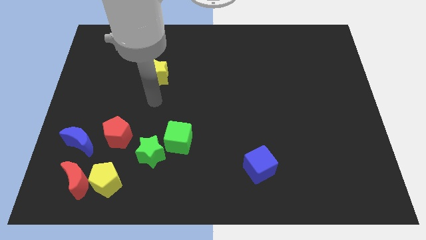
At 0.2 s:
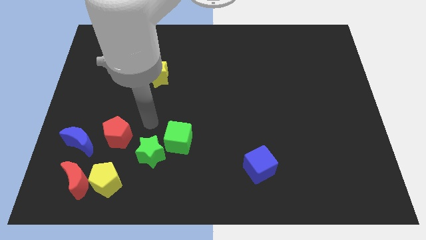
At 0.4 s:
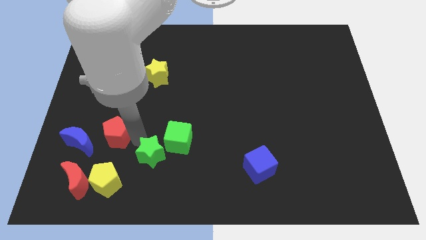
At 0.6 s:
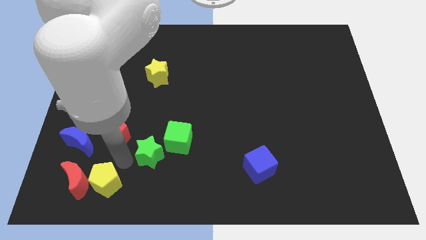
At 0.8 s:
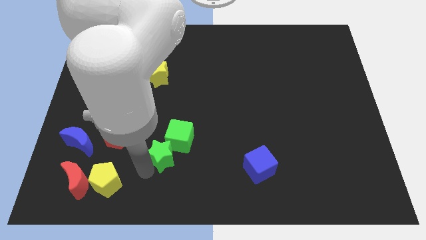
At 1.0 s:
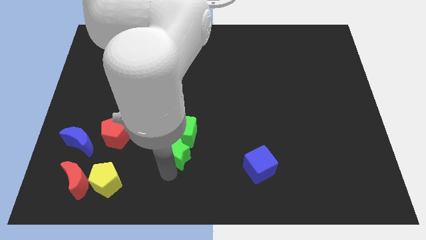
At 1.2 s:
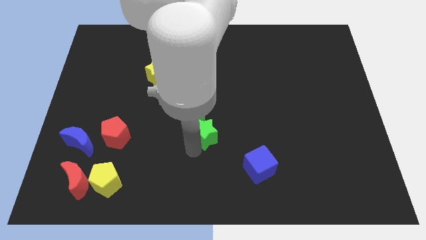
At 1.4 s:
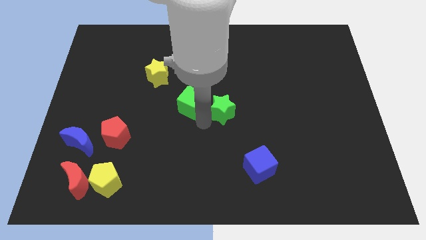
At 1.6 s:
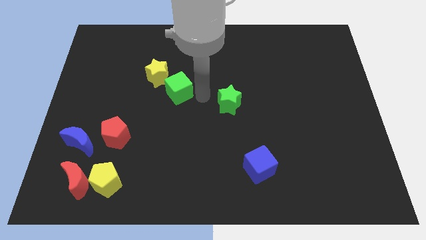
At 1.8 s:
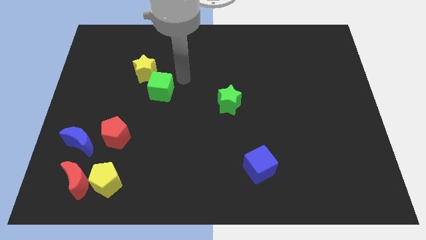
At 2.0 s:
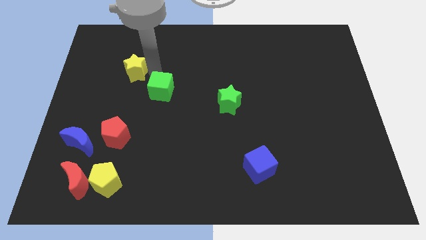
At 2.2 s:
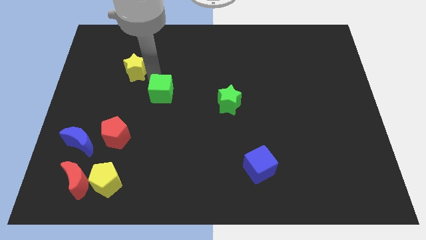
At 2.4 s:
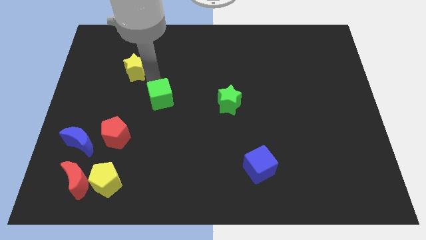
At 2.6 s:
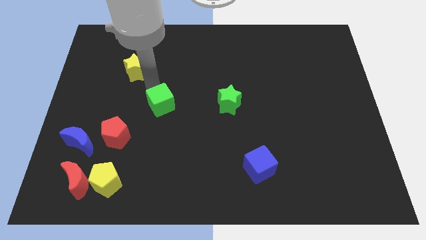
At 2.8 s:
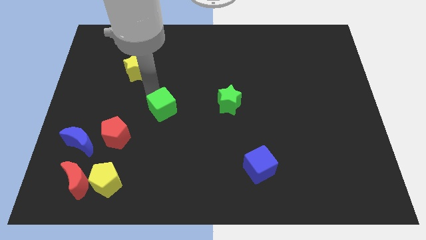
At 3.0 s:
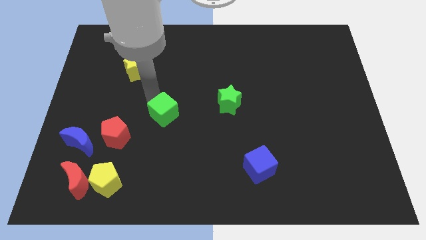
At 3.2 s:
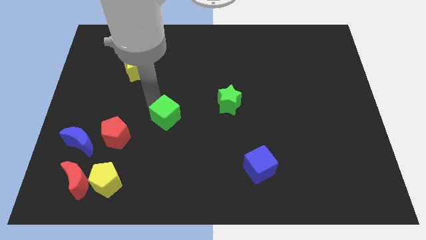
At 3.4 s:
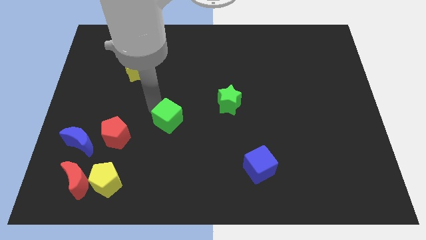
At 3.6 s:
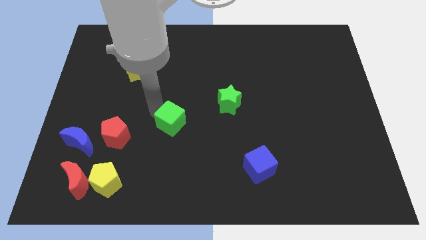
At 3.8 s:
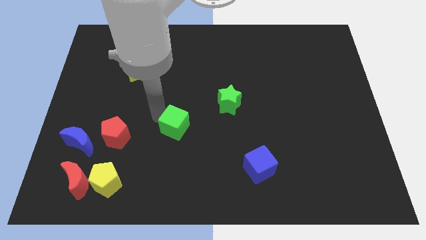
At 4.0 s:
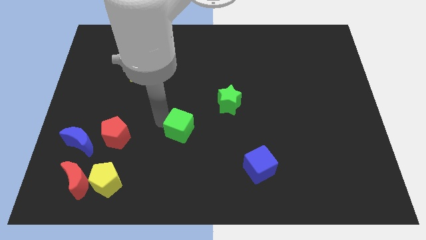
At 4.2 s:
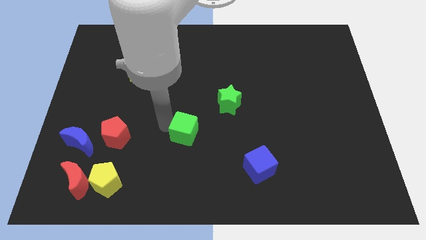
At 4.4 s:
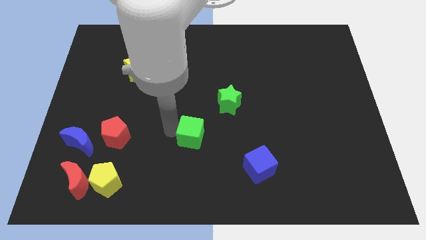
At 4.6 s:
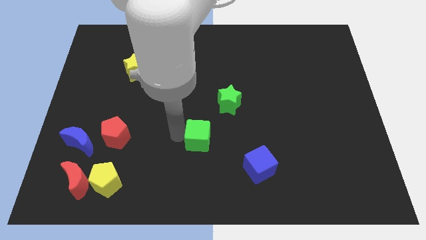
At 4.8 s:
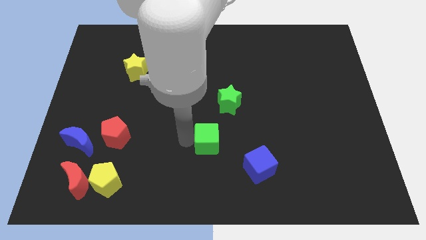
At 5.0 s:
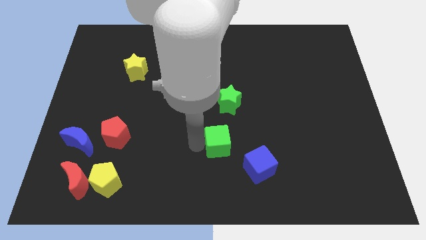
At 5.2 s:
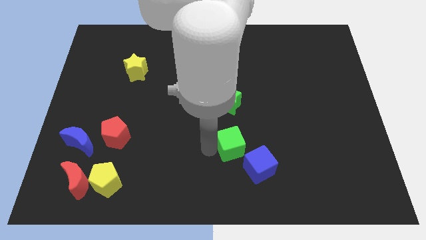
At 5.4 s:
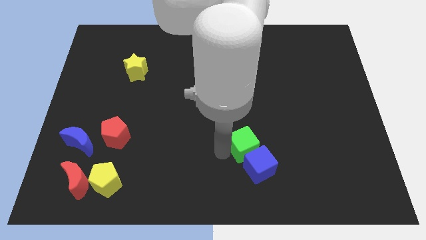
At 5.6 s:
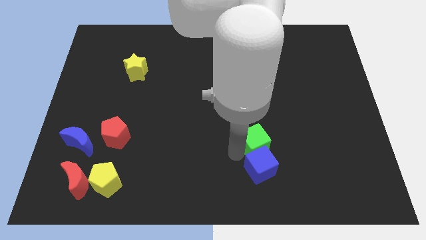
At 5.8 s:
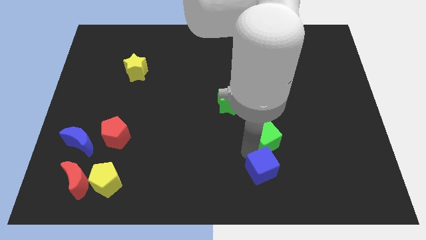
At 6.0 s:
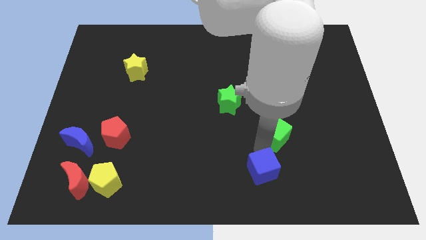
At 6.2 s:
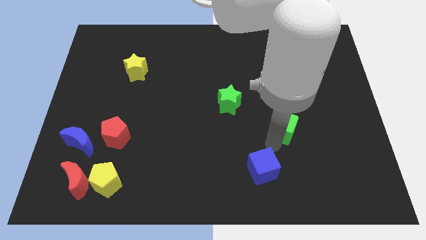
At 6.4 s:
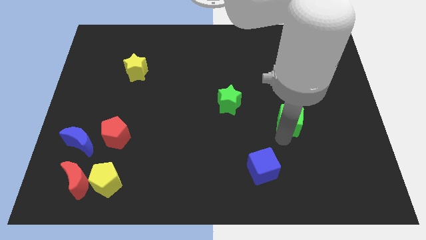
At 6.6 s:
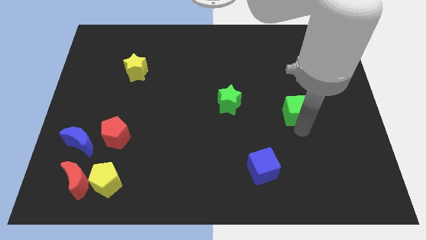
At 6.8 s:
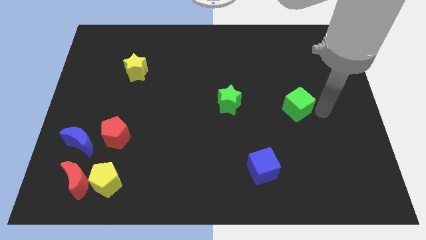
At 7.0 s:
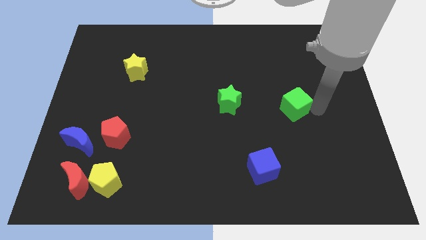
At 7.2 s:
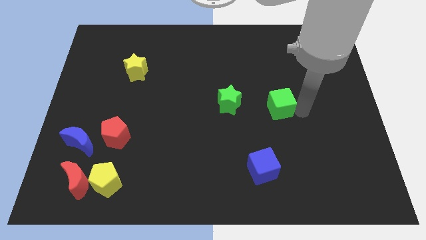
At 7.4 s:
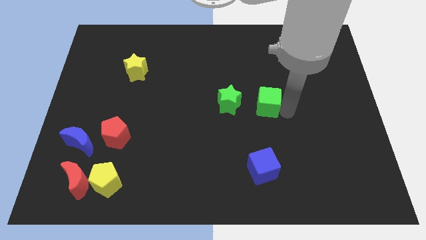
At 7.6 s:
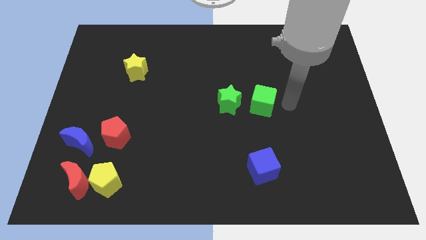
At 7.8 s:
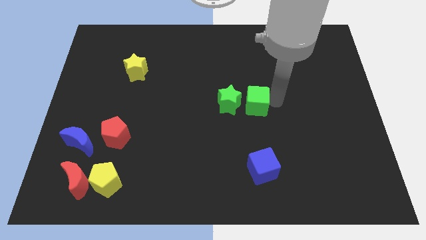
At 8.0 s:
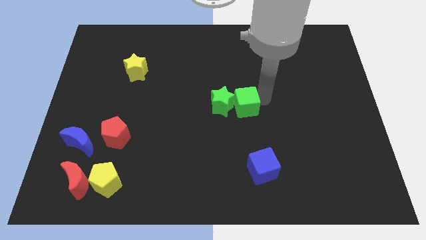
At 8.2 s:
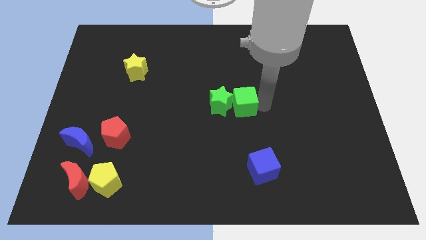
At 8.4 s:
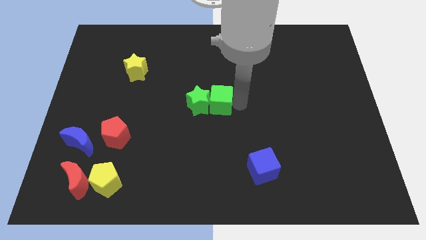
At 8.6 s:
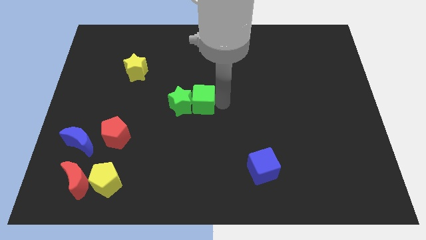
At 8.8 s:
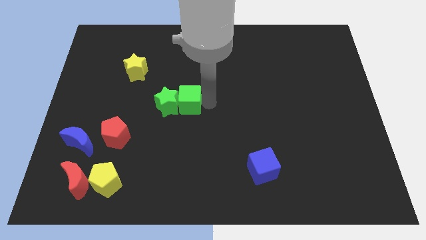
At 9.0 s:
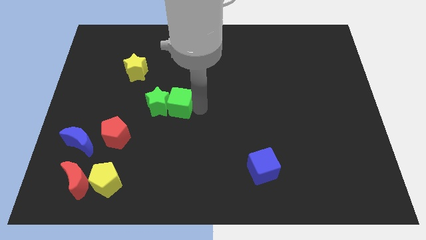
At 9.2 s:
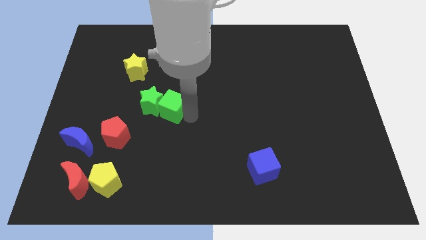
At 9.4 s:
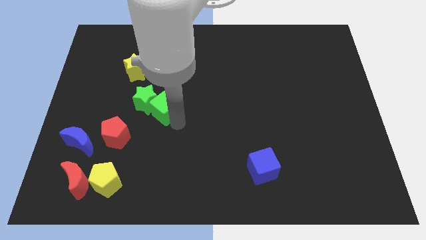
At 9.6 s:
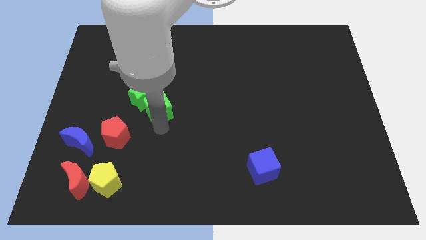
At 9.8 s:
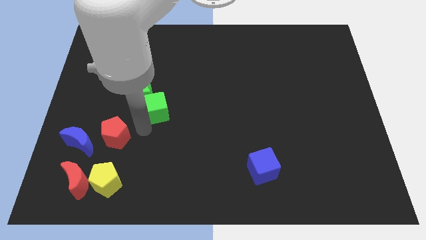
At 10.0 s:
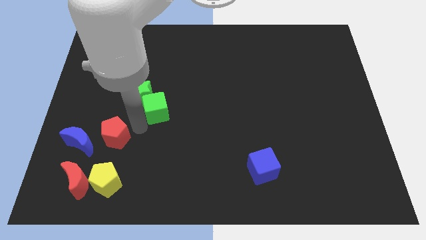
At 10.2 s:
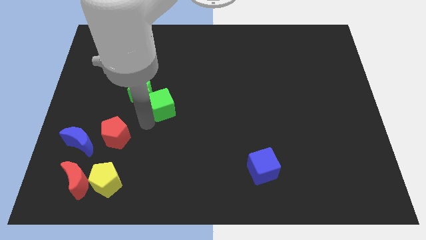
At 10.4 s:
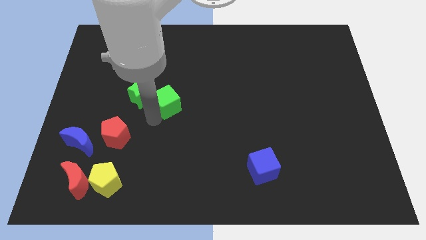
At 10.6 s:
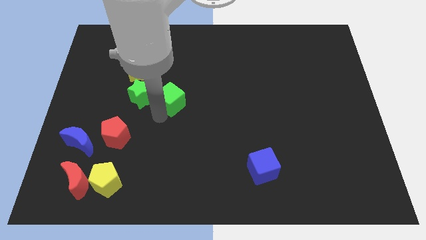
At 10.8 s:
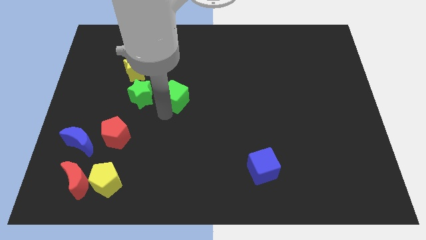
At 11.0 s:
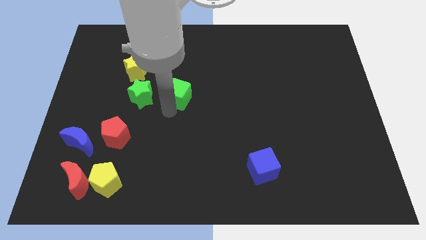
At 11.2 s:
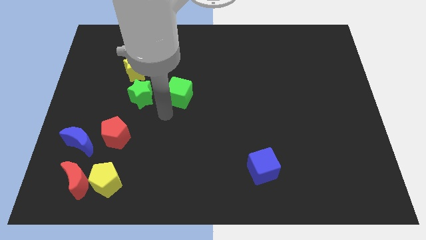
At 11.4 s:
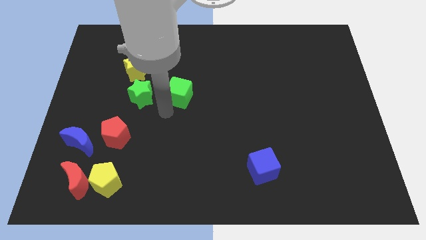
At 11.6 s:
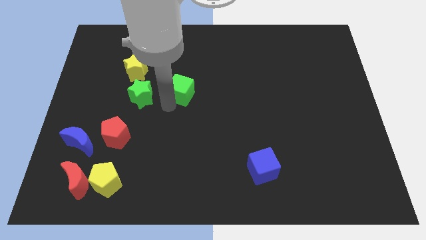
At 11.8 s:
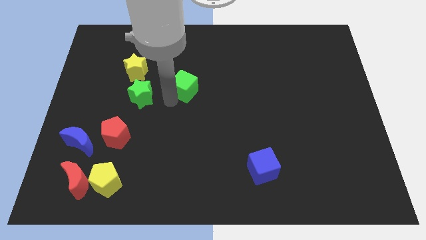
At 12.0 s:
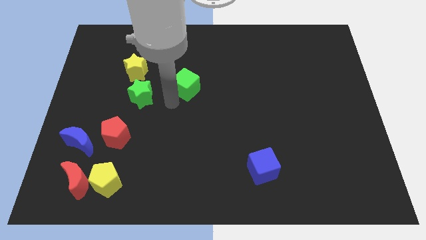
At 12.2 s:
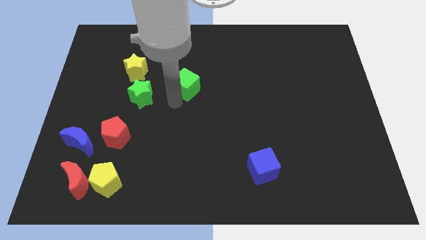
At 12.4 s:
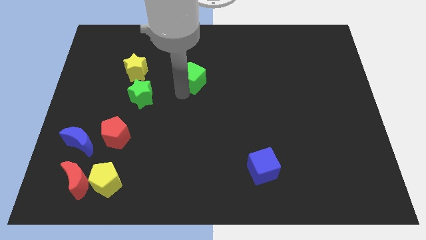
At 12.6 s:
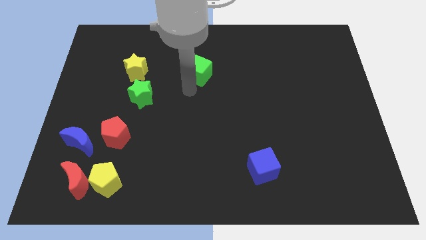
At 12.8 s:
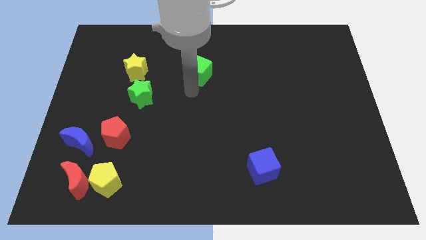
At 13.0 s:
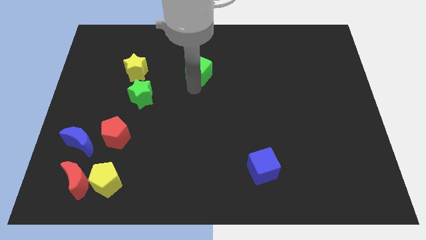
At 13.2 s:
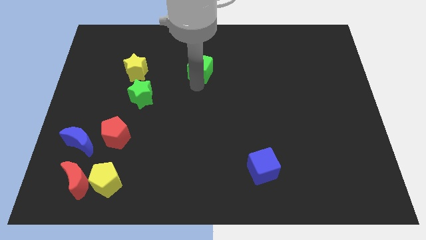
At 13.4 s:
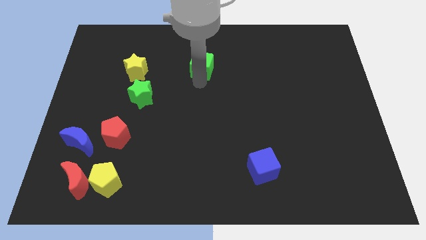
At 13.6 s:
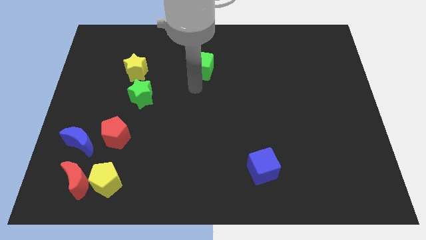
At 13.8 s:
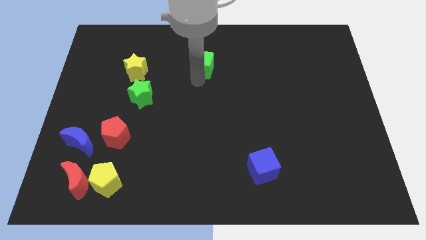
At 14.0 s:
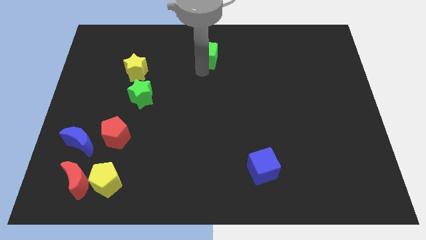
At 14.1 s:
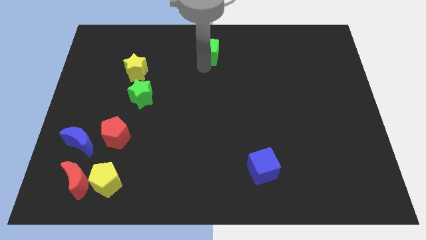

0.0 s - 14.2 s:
push the green cube to the towards your base
